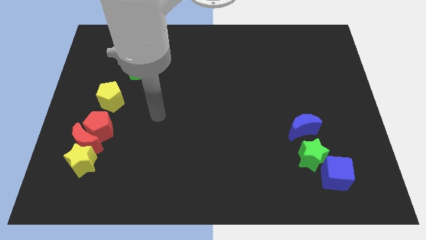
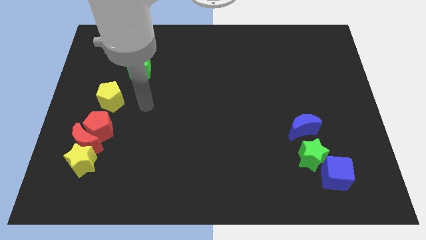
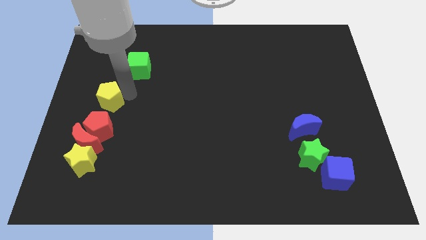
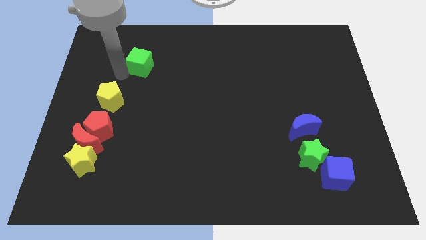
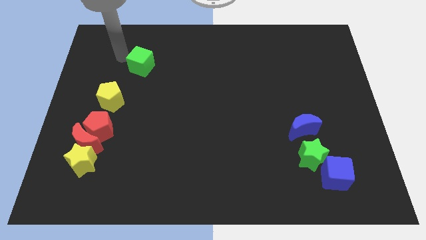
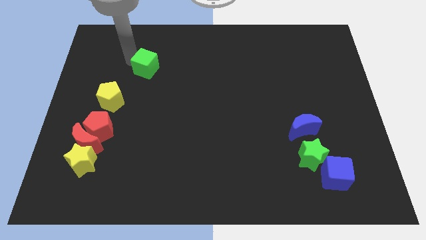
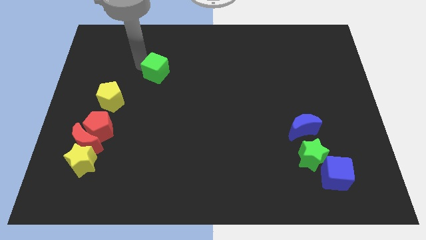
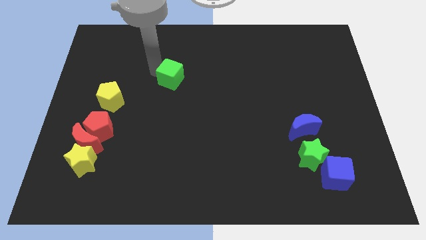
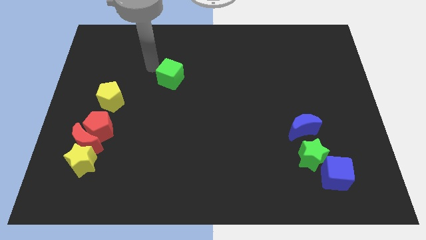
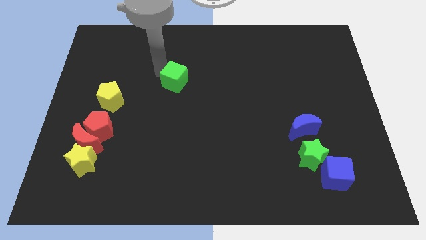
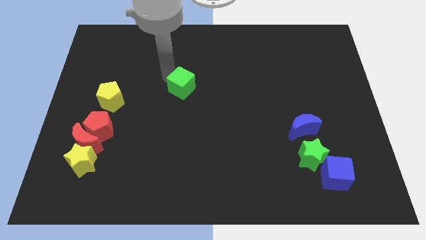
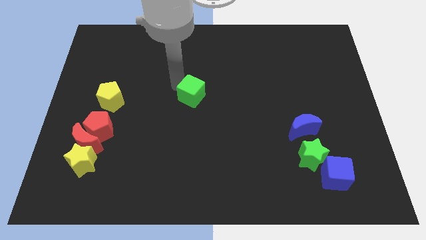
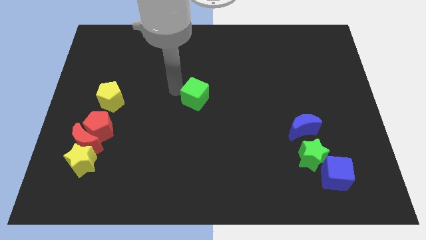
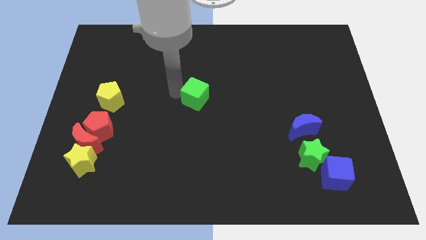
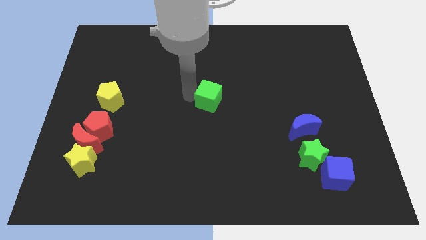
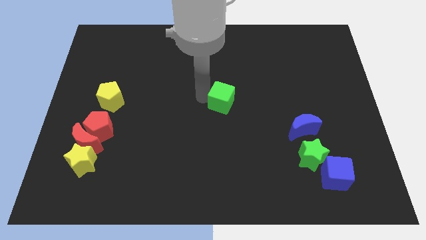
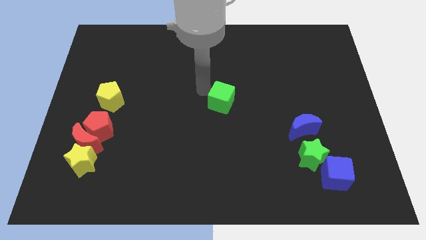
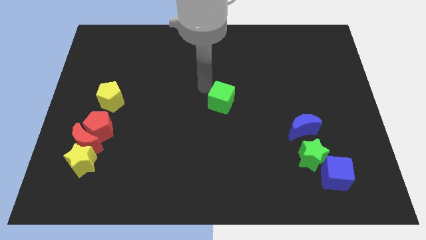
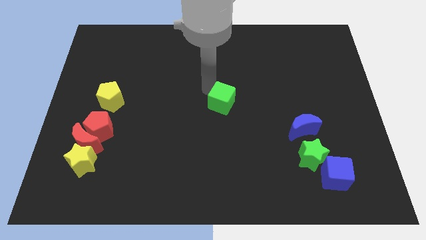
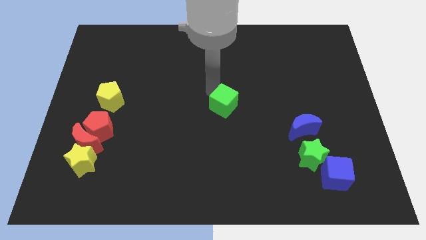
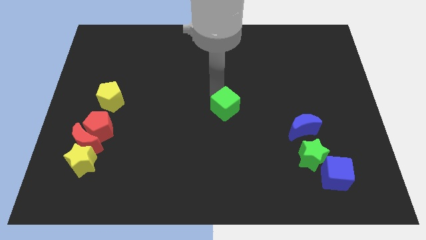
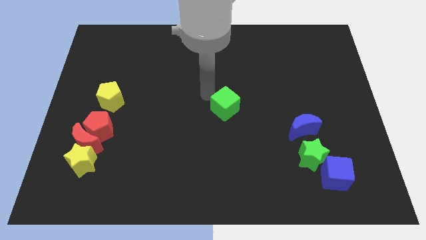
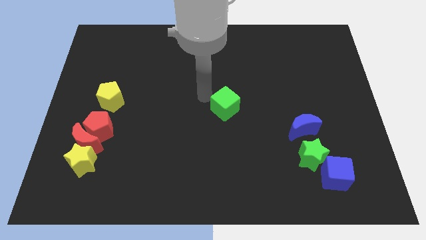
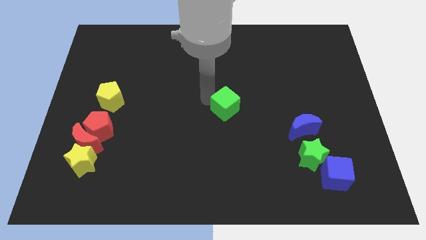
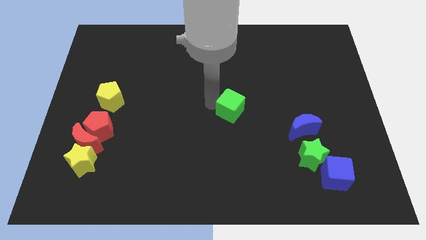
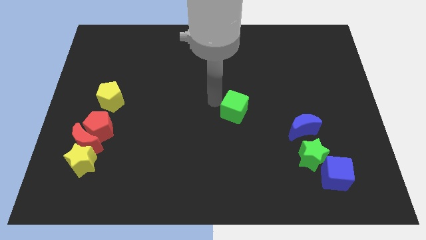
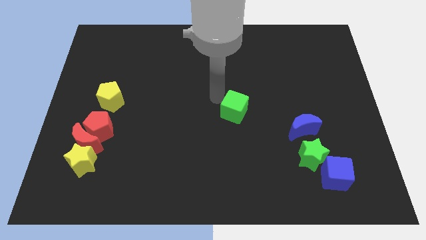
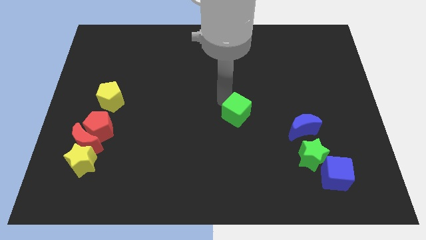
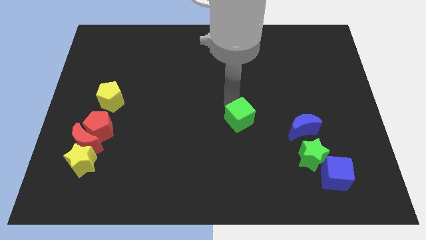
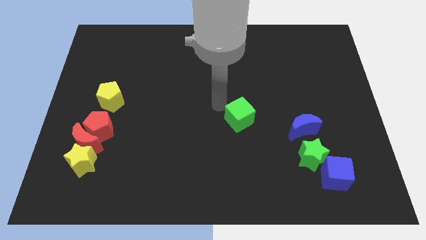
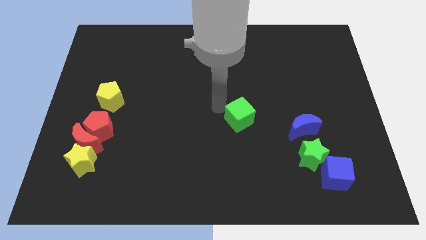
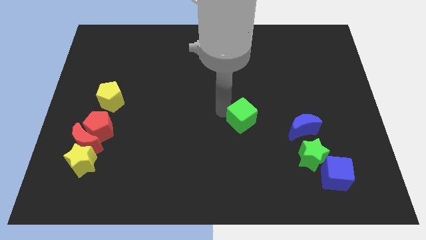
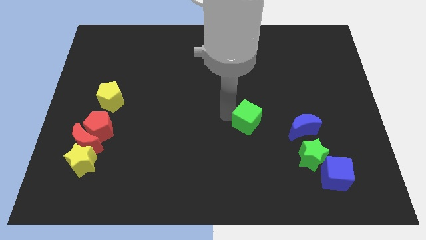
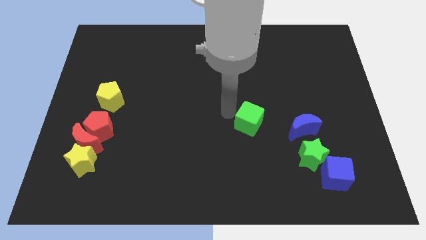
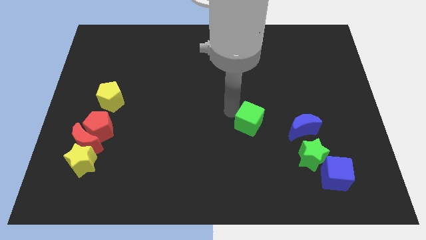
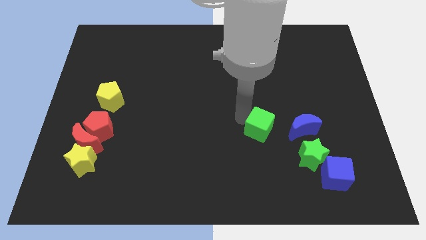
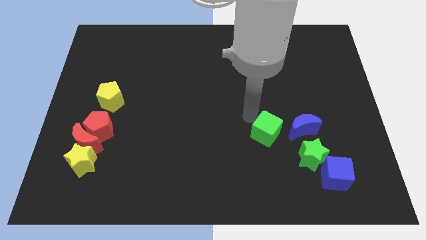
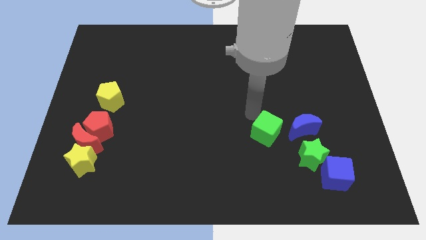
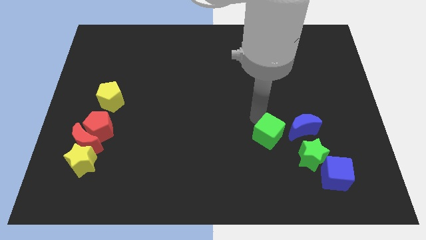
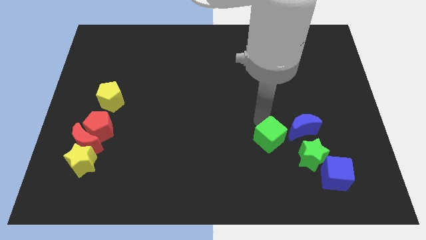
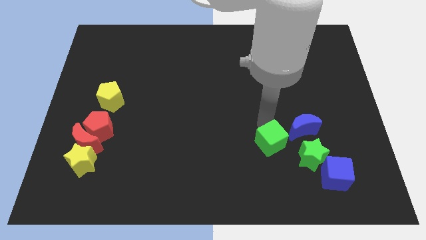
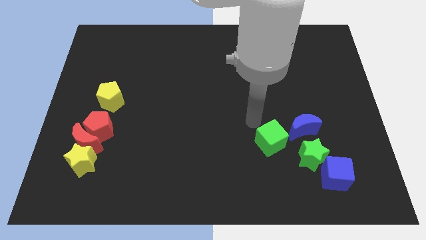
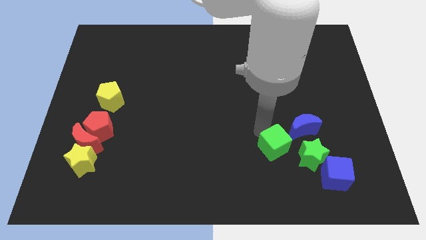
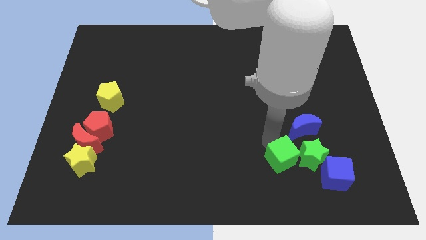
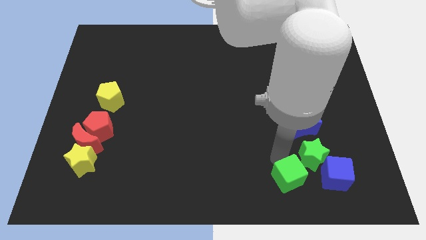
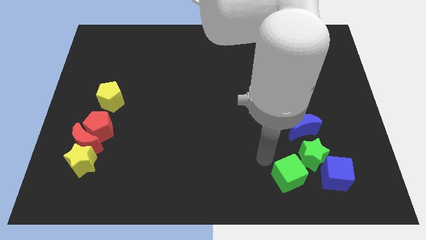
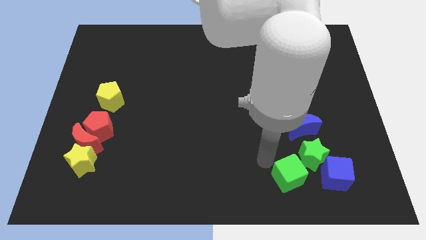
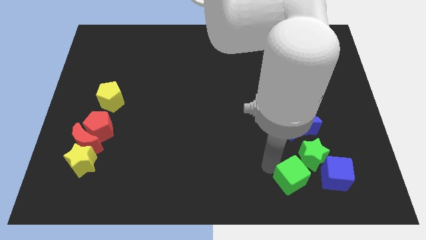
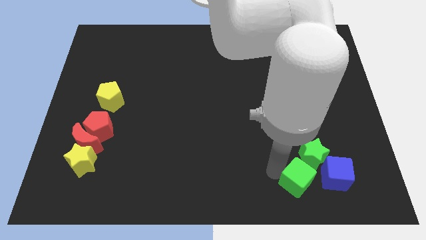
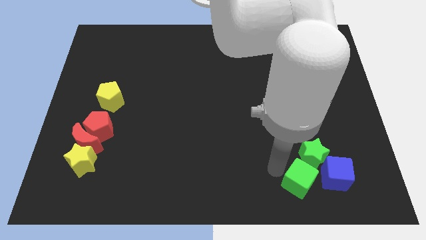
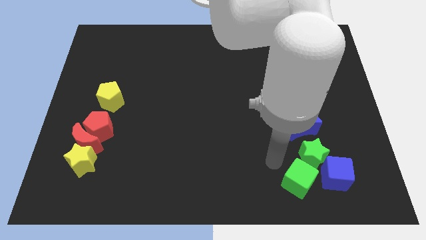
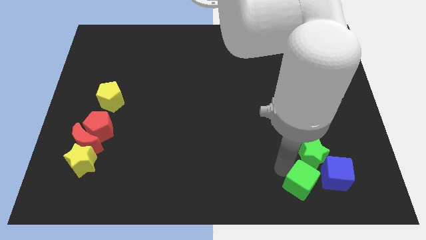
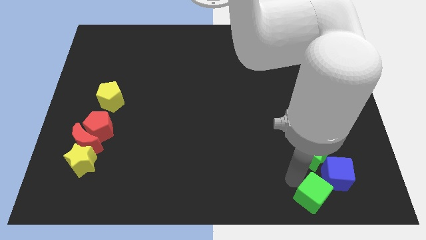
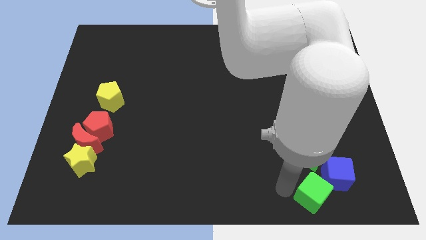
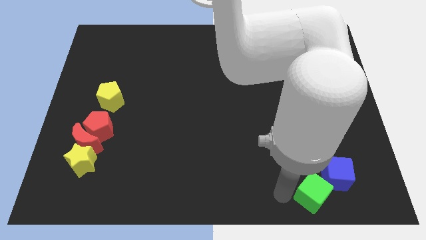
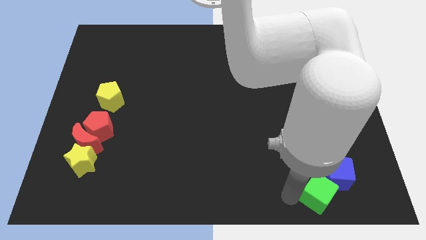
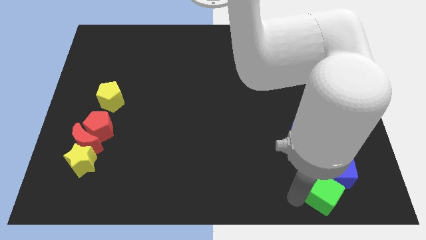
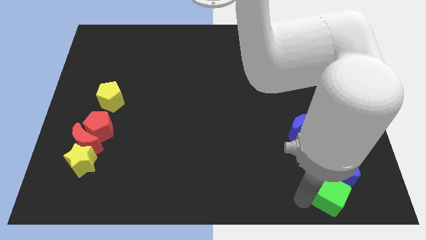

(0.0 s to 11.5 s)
push the green cube diagonally down and to the right of the green star
